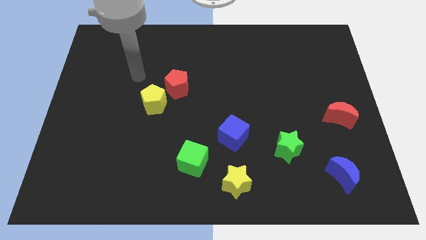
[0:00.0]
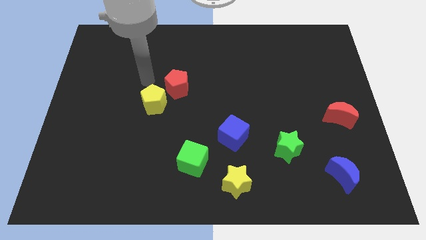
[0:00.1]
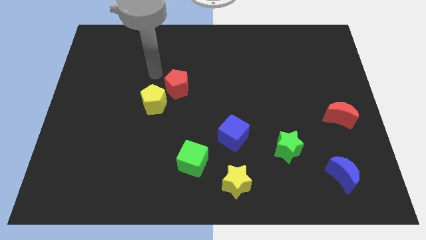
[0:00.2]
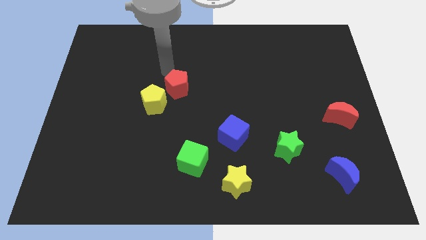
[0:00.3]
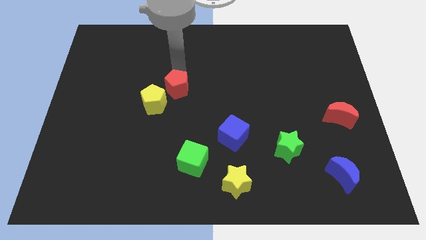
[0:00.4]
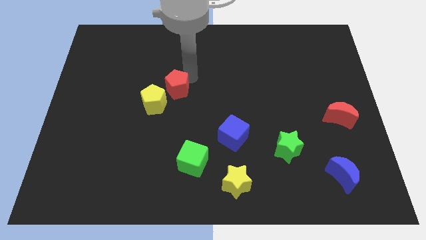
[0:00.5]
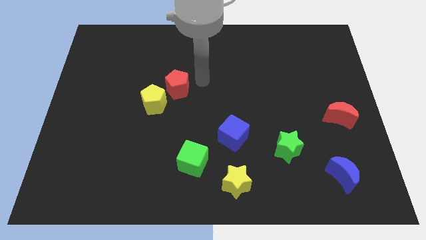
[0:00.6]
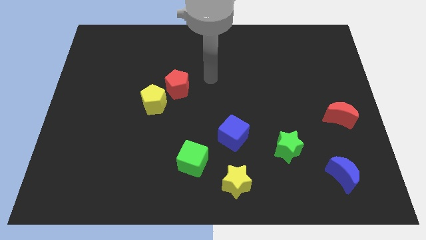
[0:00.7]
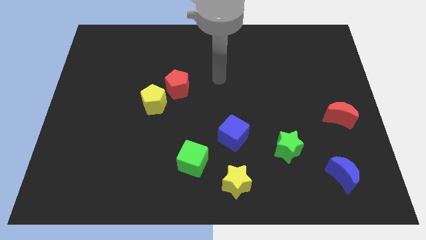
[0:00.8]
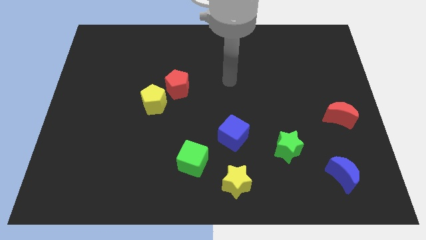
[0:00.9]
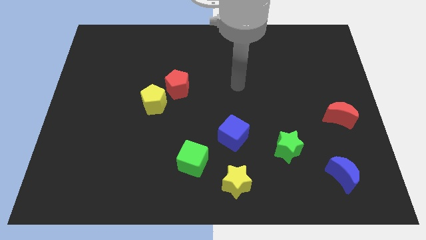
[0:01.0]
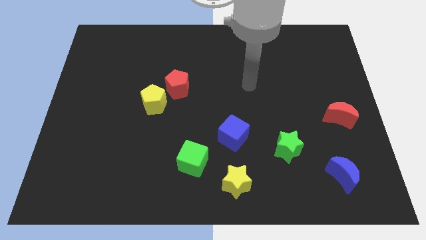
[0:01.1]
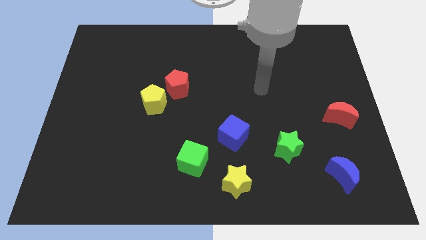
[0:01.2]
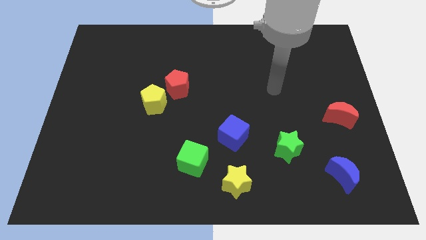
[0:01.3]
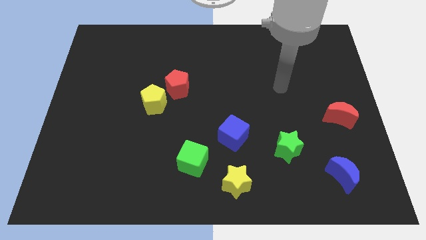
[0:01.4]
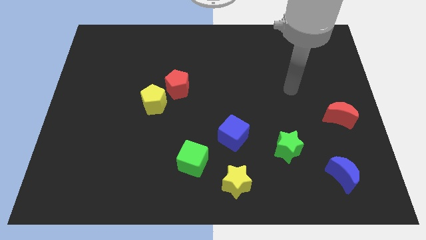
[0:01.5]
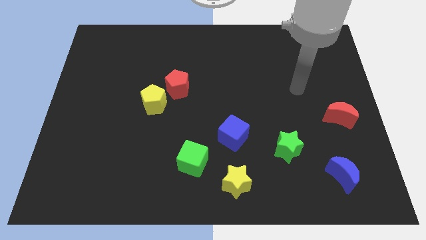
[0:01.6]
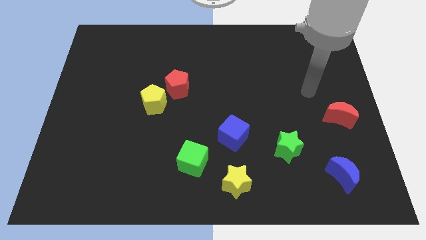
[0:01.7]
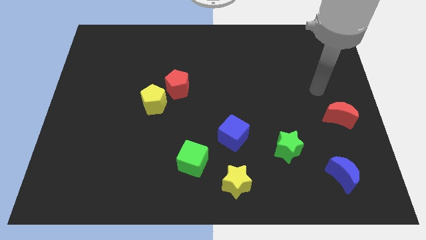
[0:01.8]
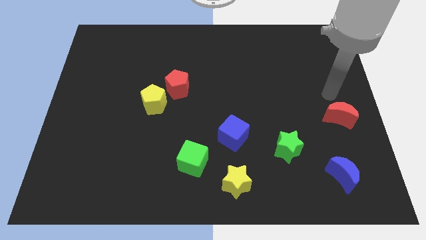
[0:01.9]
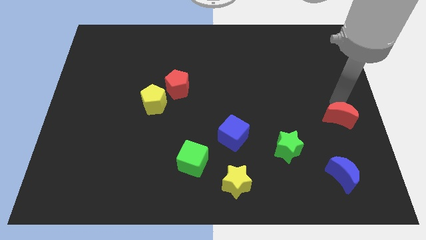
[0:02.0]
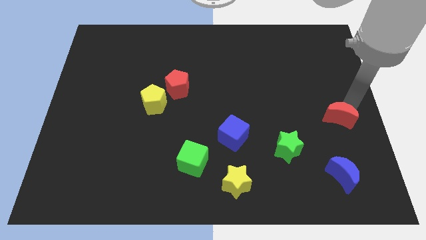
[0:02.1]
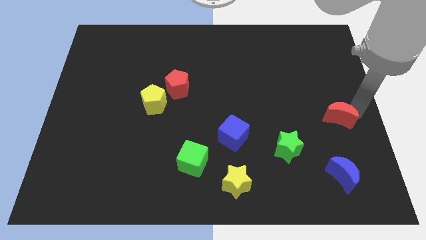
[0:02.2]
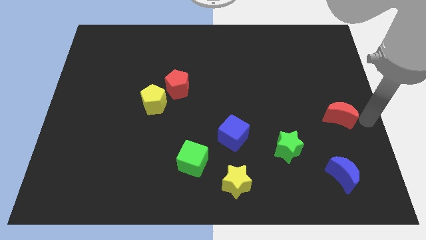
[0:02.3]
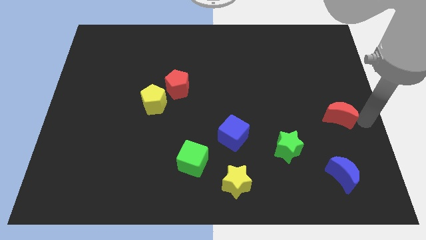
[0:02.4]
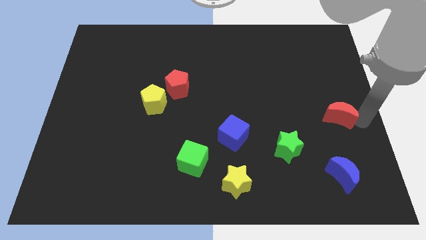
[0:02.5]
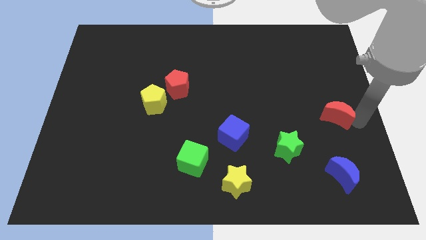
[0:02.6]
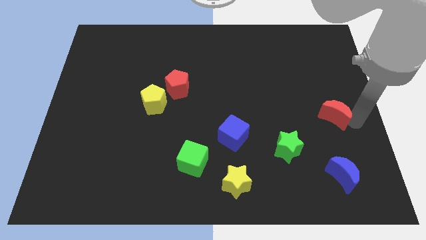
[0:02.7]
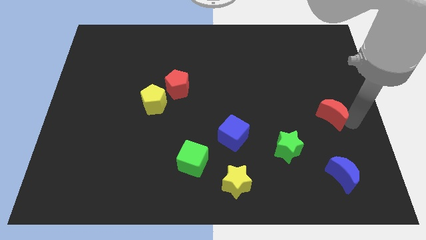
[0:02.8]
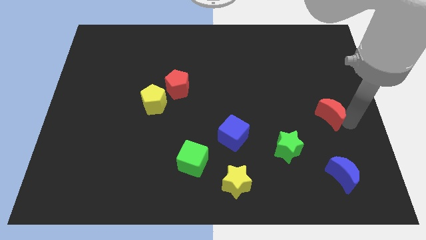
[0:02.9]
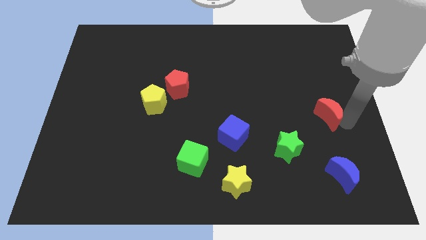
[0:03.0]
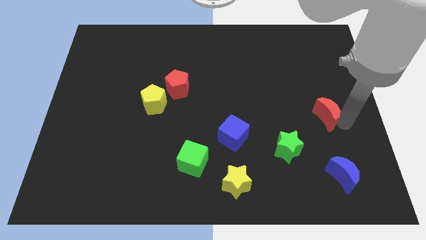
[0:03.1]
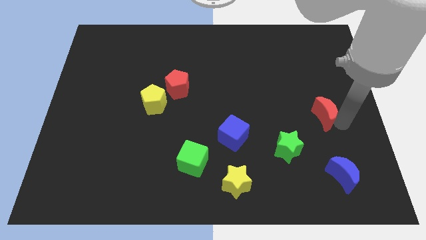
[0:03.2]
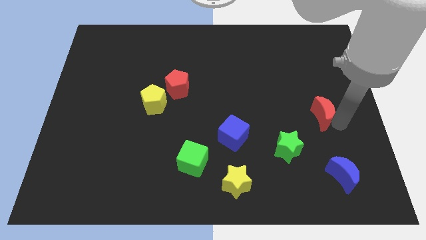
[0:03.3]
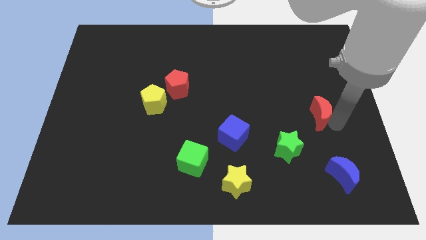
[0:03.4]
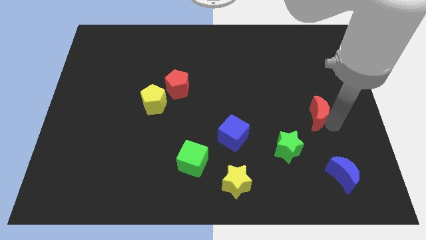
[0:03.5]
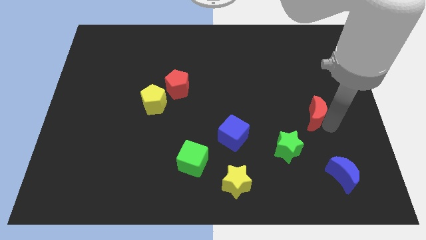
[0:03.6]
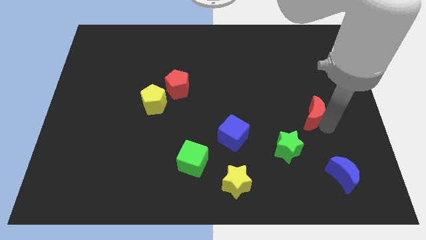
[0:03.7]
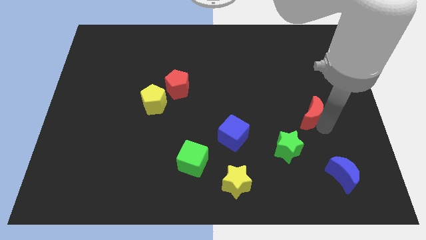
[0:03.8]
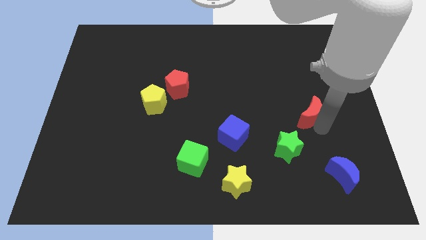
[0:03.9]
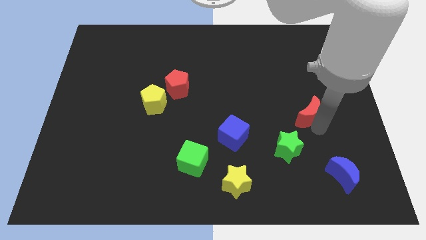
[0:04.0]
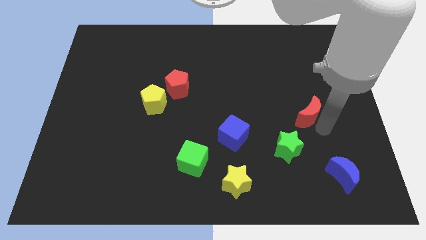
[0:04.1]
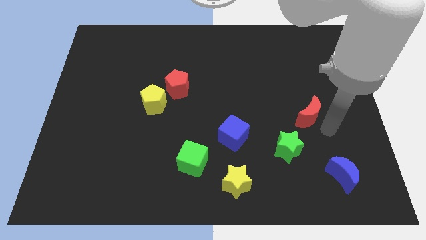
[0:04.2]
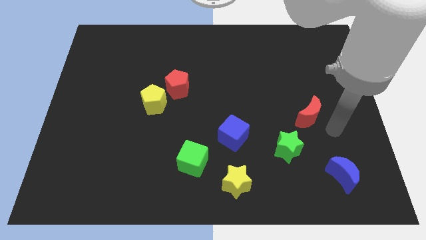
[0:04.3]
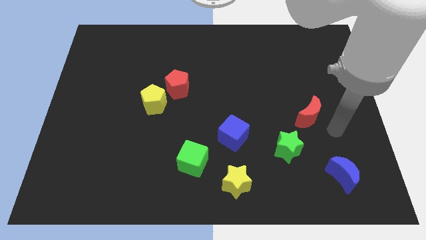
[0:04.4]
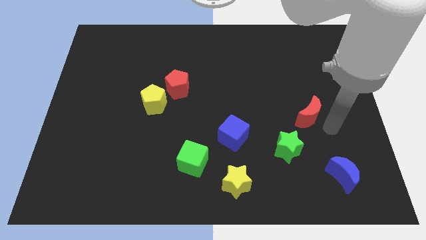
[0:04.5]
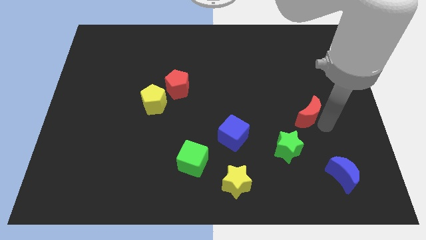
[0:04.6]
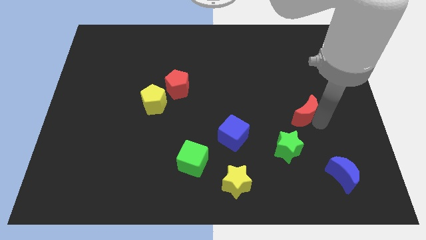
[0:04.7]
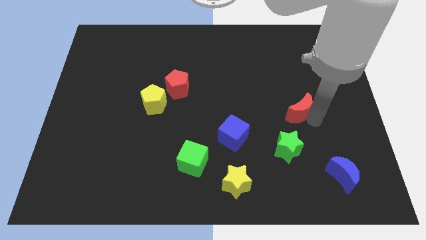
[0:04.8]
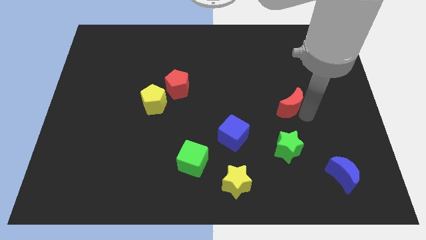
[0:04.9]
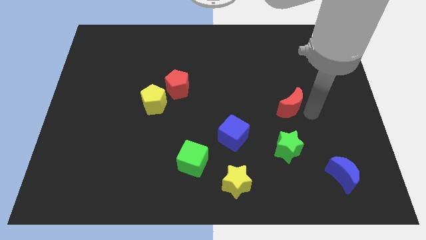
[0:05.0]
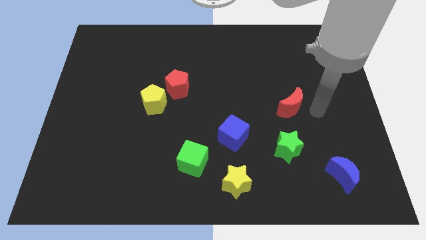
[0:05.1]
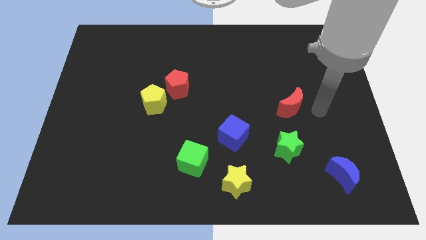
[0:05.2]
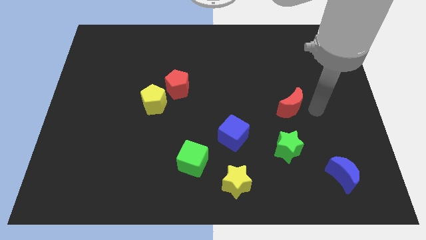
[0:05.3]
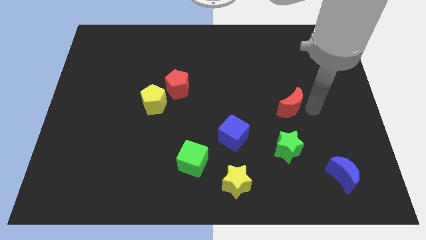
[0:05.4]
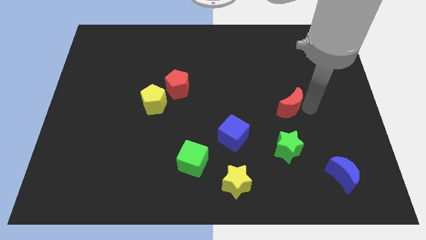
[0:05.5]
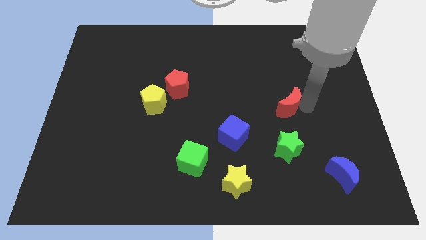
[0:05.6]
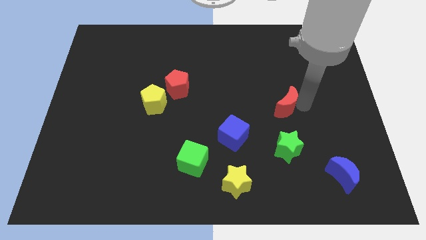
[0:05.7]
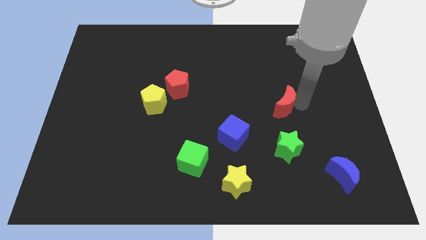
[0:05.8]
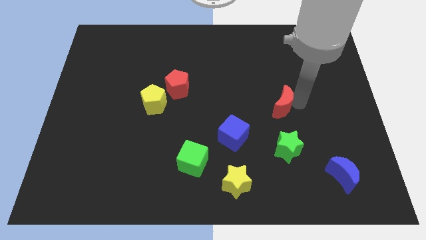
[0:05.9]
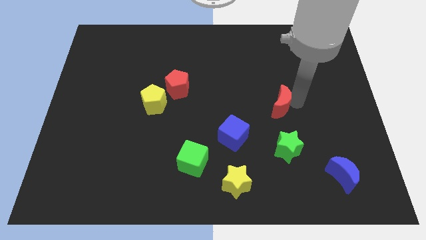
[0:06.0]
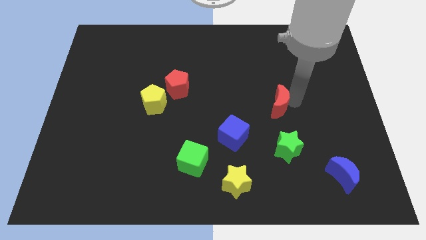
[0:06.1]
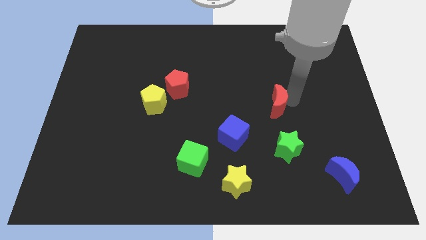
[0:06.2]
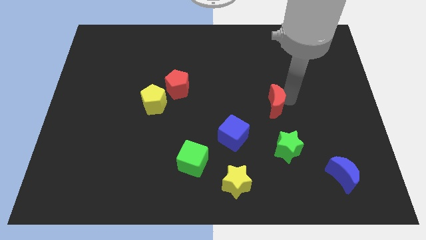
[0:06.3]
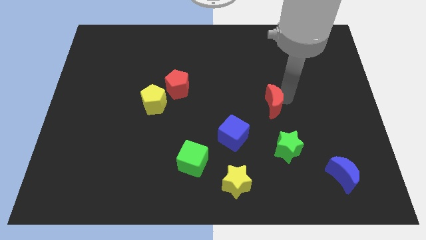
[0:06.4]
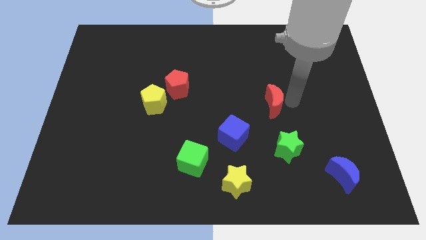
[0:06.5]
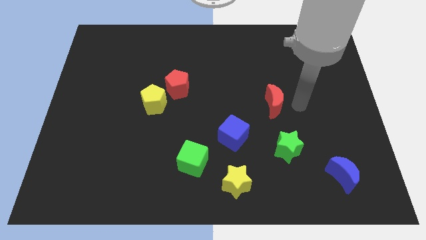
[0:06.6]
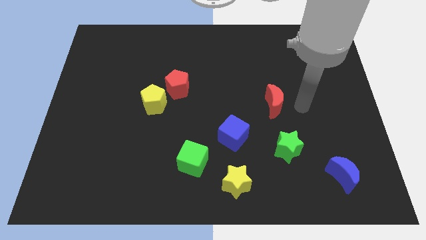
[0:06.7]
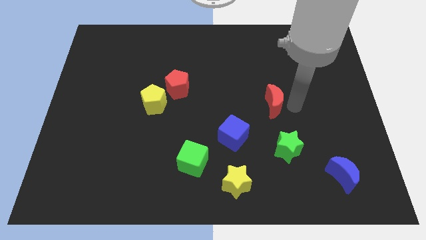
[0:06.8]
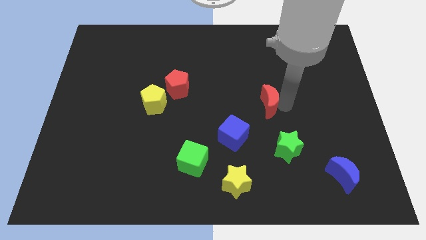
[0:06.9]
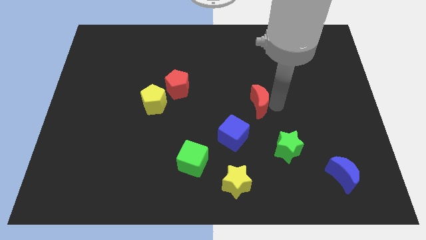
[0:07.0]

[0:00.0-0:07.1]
slide the red moon to the center

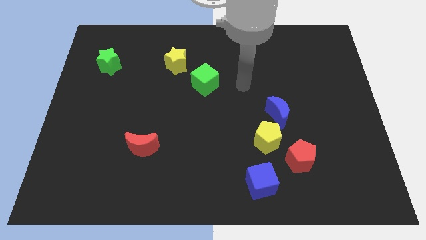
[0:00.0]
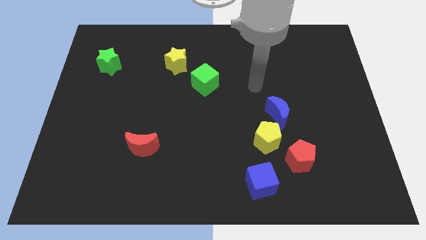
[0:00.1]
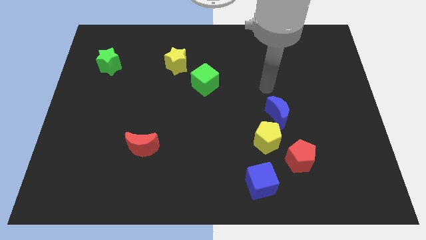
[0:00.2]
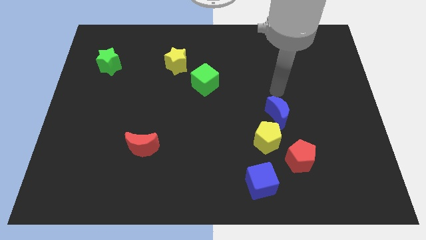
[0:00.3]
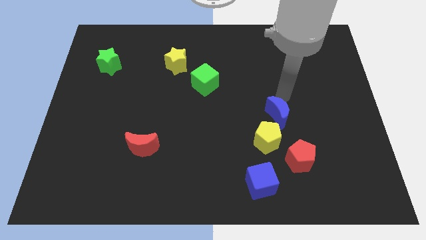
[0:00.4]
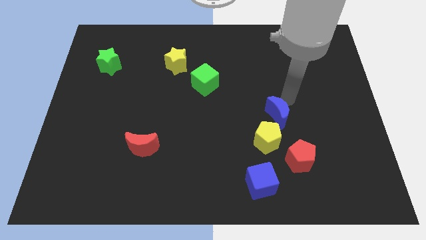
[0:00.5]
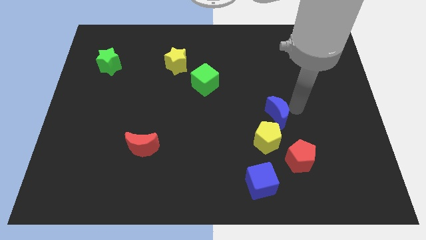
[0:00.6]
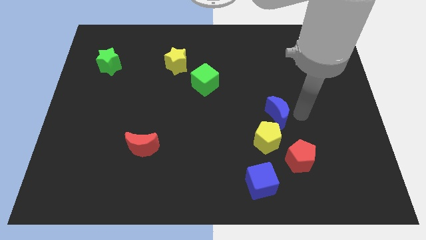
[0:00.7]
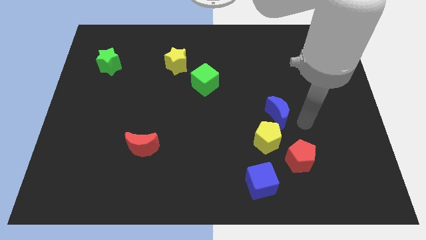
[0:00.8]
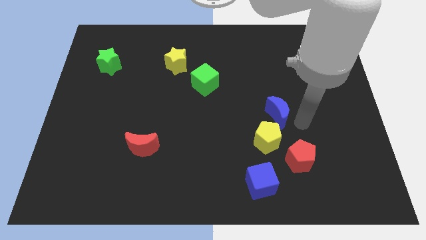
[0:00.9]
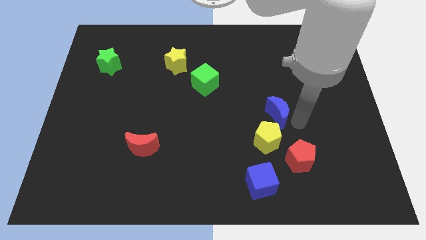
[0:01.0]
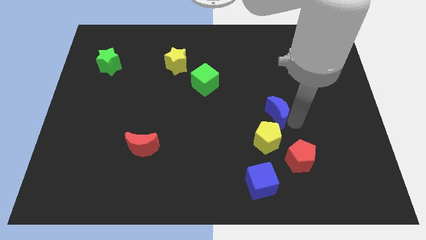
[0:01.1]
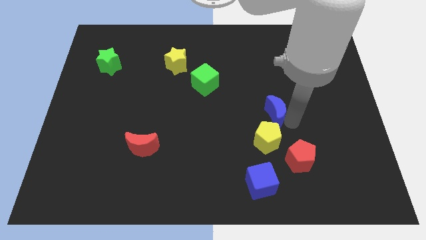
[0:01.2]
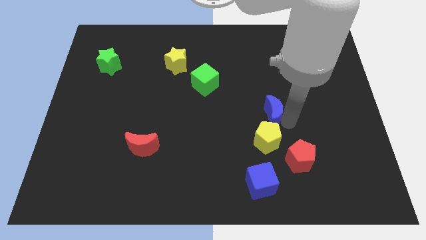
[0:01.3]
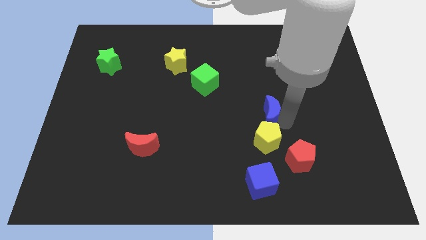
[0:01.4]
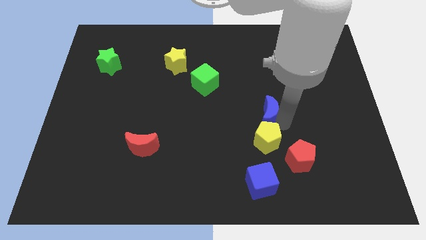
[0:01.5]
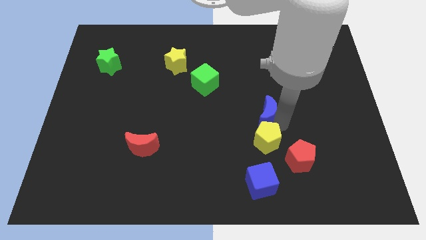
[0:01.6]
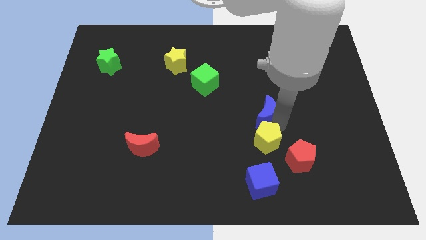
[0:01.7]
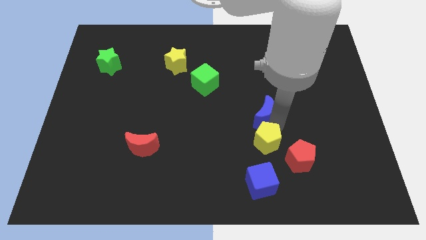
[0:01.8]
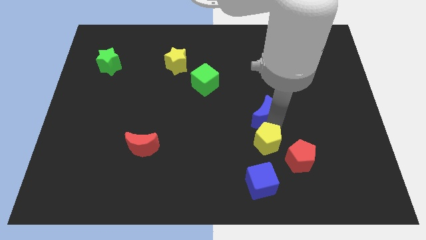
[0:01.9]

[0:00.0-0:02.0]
push the blue moon to the middle of the board
